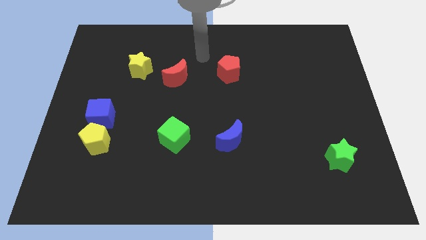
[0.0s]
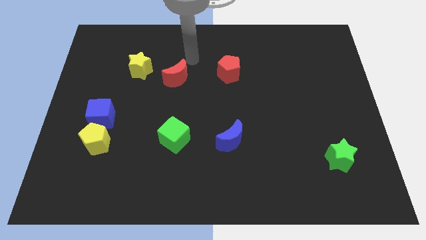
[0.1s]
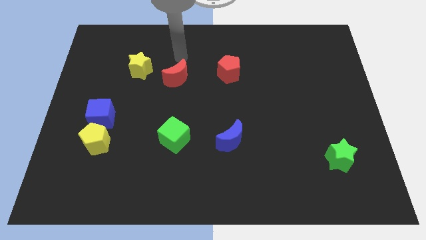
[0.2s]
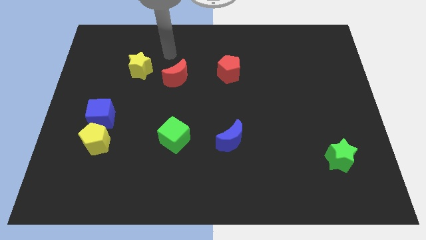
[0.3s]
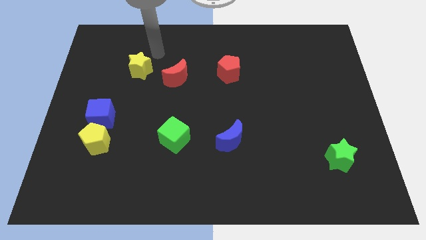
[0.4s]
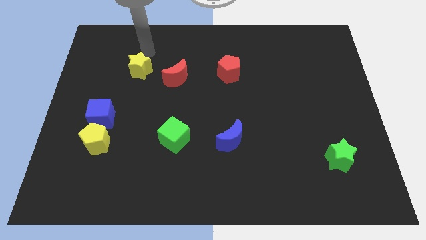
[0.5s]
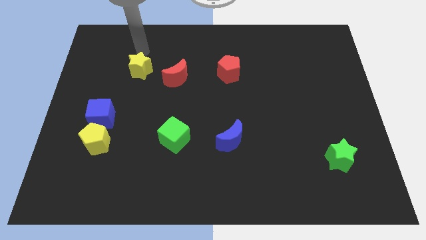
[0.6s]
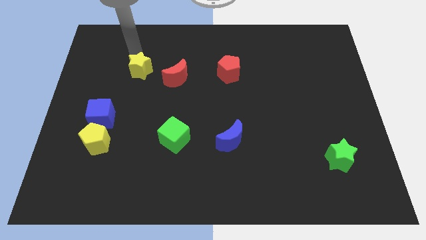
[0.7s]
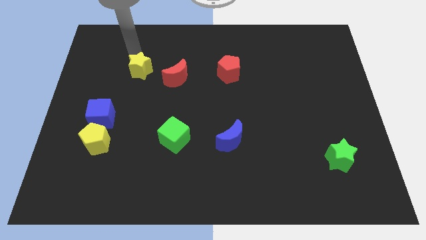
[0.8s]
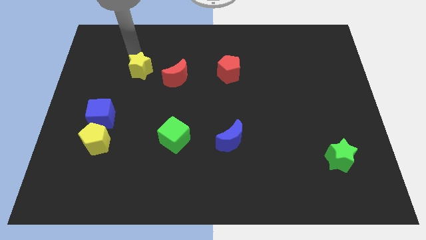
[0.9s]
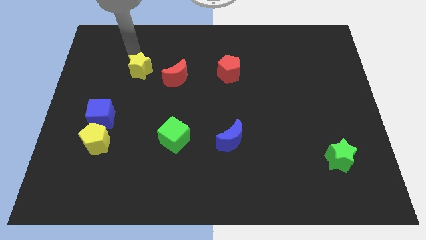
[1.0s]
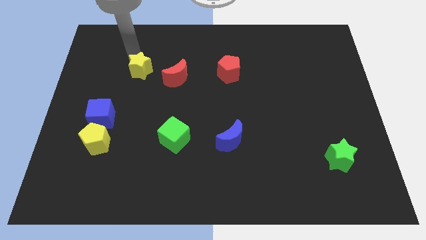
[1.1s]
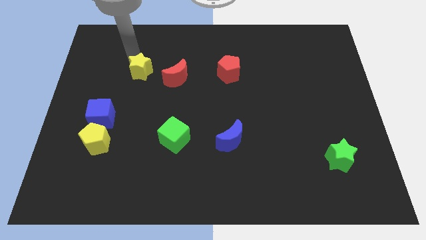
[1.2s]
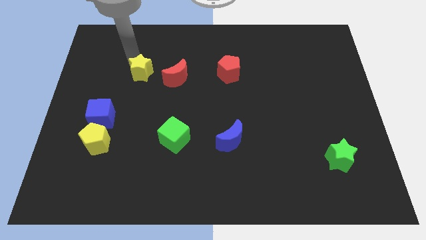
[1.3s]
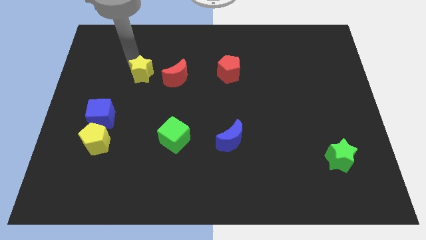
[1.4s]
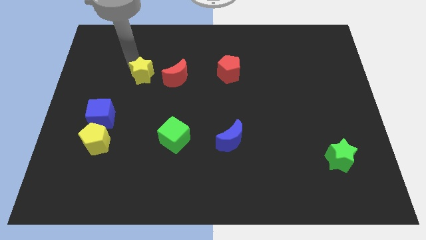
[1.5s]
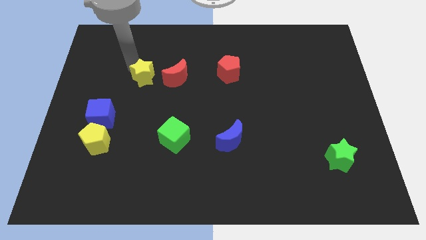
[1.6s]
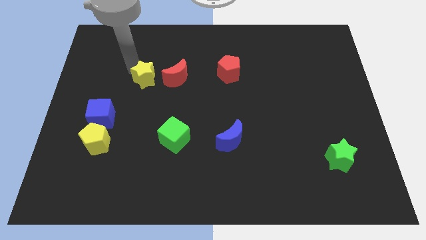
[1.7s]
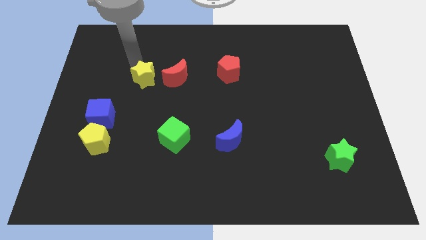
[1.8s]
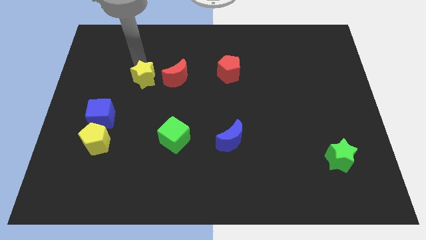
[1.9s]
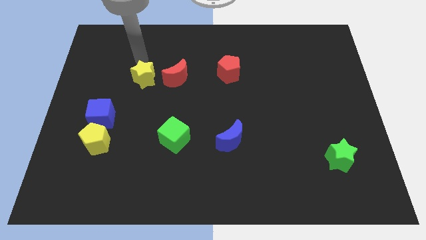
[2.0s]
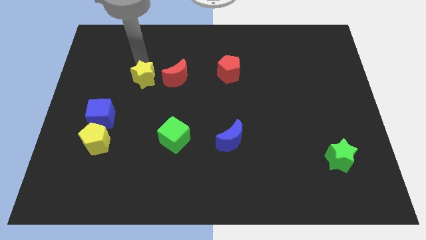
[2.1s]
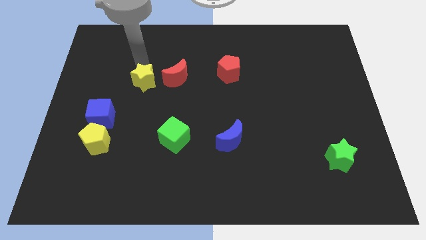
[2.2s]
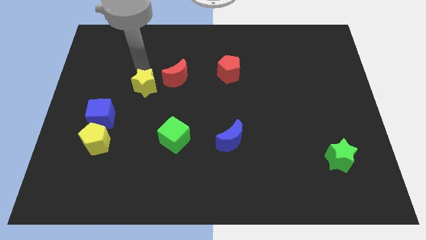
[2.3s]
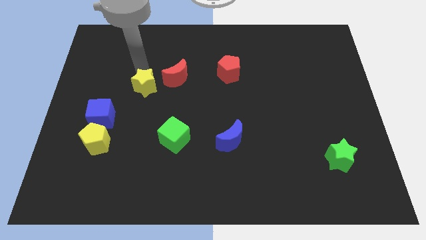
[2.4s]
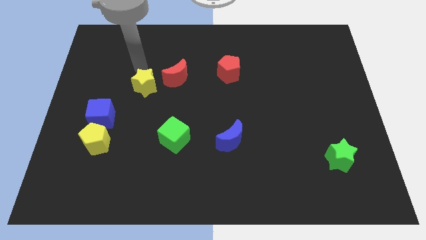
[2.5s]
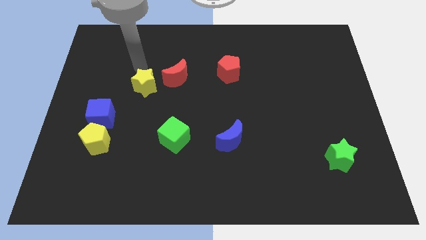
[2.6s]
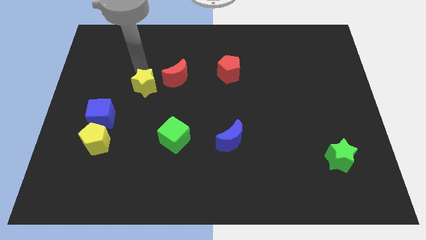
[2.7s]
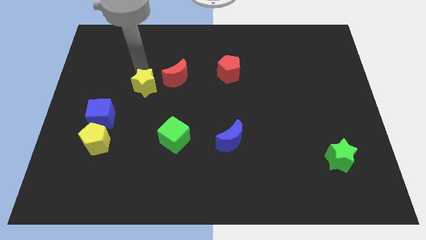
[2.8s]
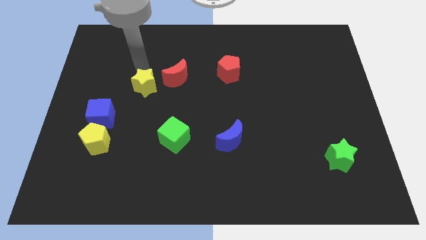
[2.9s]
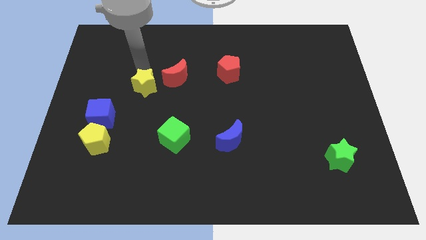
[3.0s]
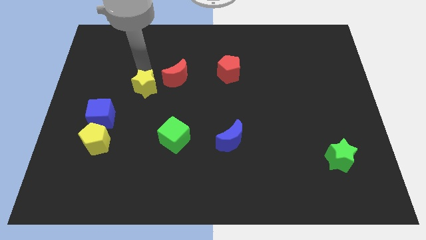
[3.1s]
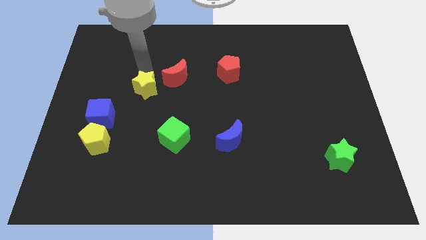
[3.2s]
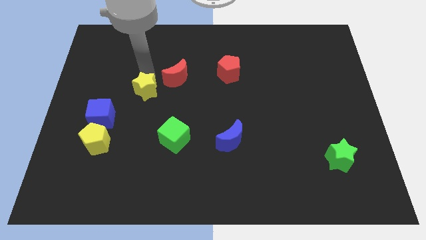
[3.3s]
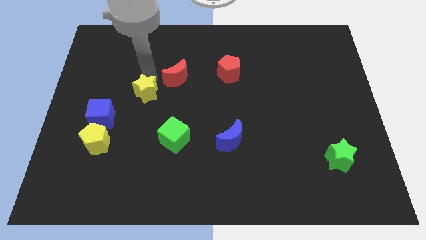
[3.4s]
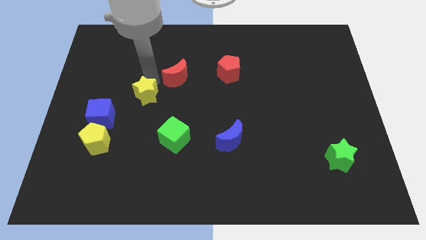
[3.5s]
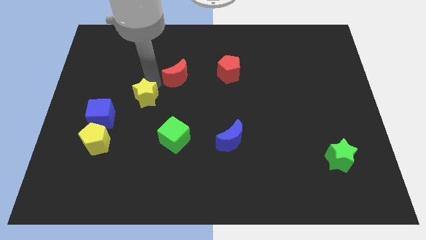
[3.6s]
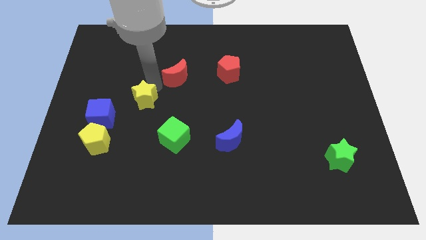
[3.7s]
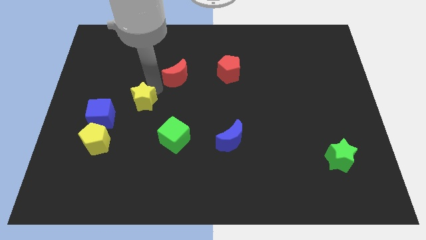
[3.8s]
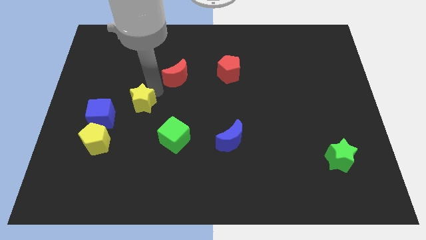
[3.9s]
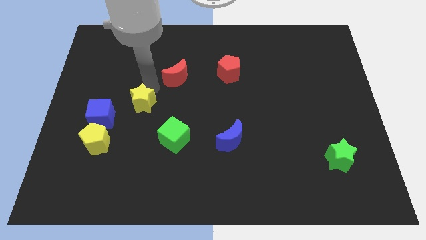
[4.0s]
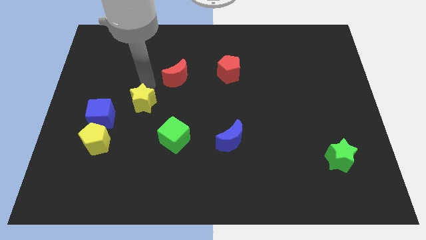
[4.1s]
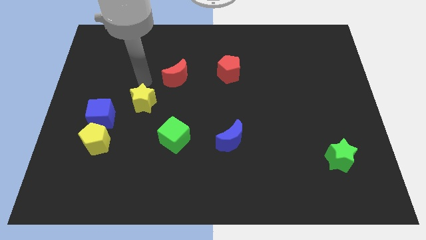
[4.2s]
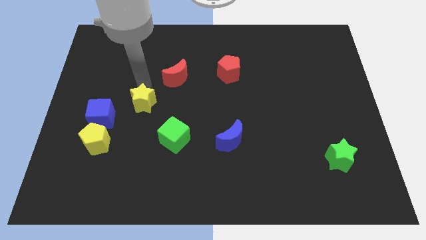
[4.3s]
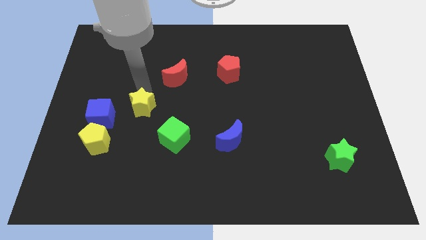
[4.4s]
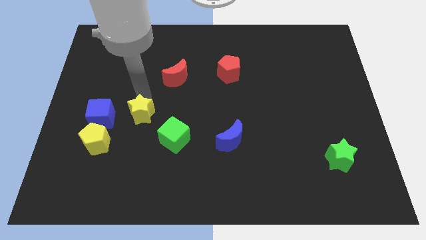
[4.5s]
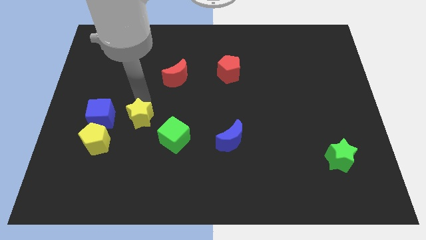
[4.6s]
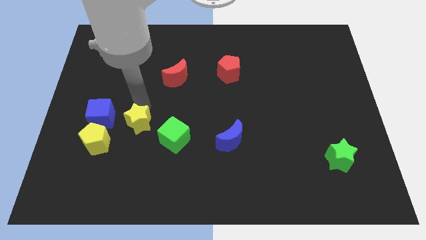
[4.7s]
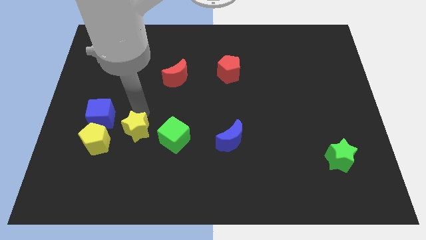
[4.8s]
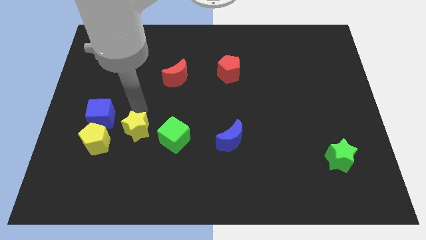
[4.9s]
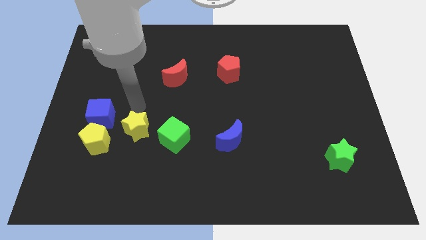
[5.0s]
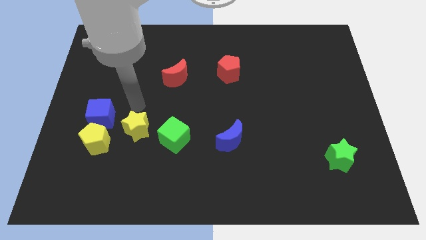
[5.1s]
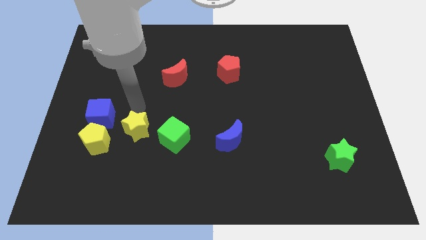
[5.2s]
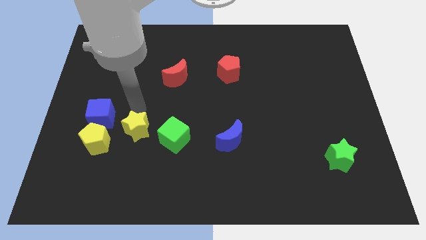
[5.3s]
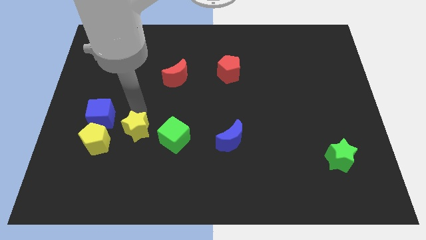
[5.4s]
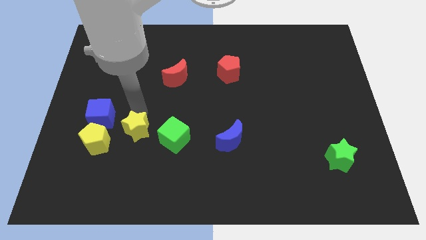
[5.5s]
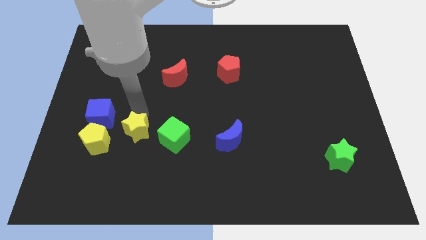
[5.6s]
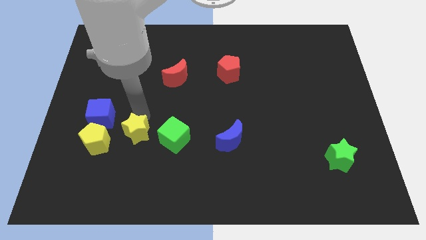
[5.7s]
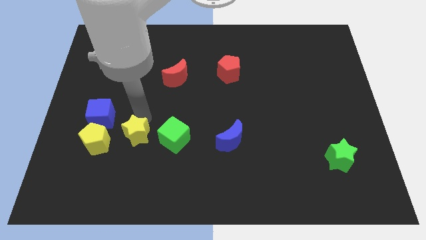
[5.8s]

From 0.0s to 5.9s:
slide the yellow star down

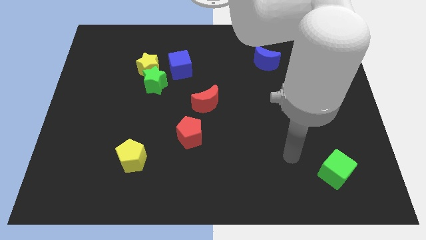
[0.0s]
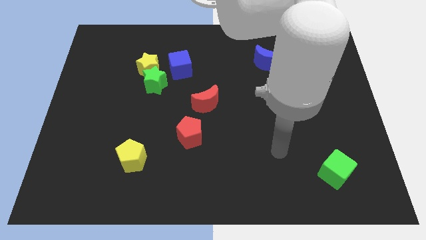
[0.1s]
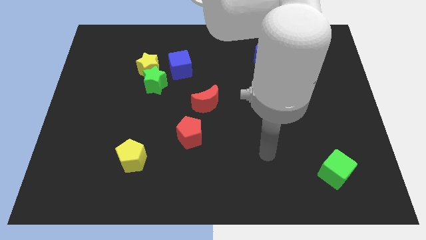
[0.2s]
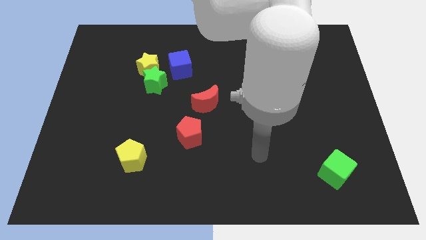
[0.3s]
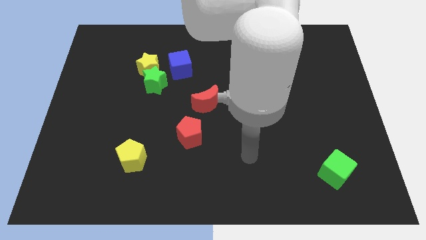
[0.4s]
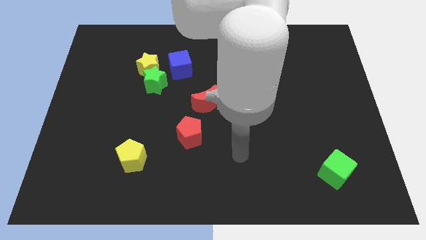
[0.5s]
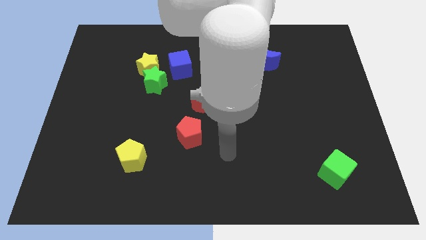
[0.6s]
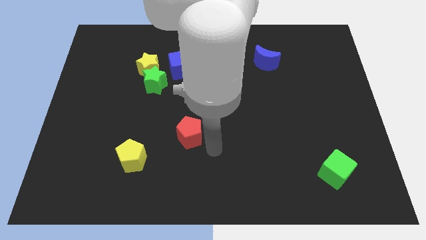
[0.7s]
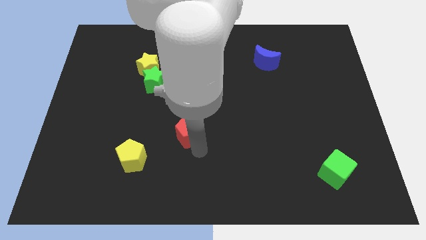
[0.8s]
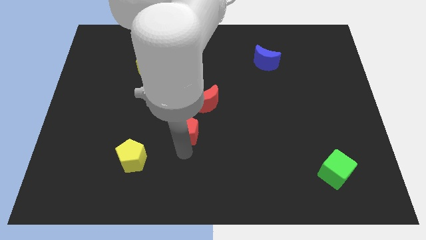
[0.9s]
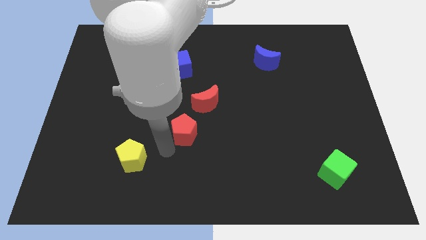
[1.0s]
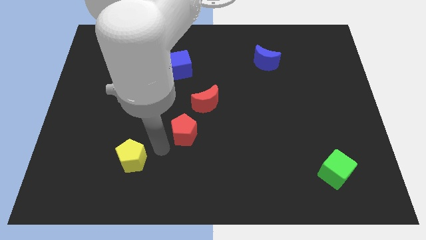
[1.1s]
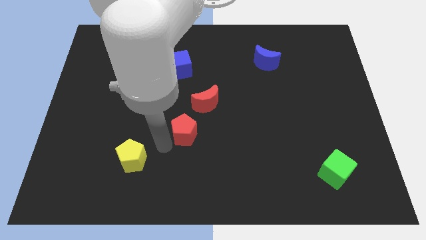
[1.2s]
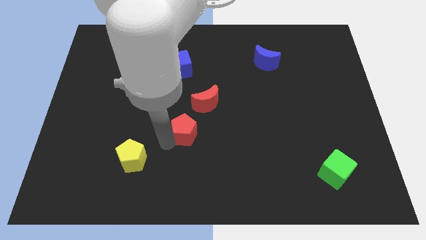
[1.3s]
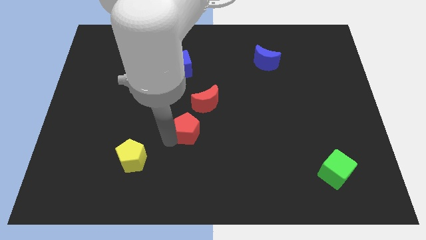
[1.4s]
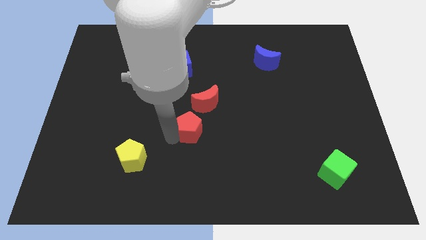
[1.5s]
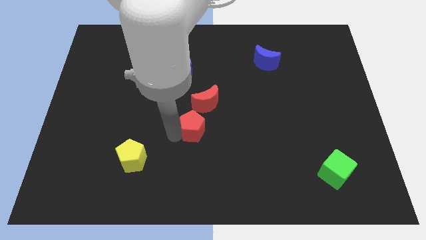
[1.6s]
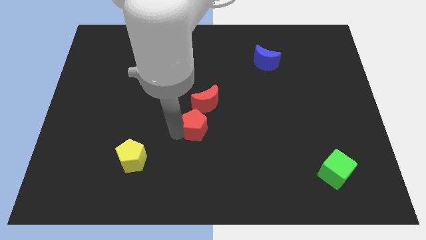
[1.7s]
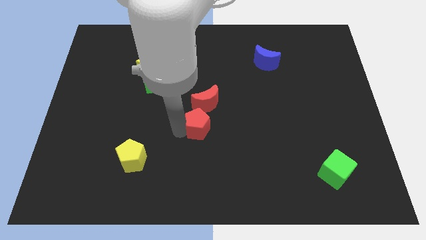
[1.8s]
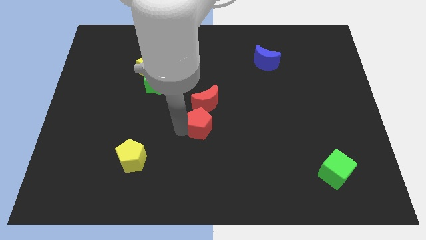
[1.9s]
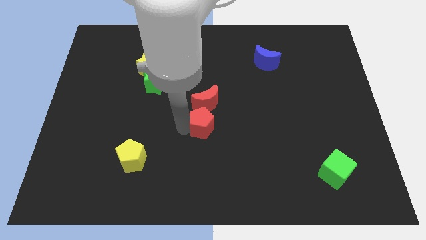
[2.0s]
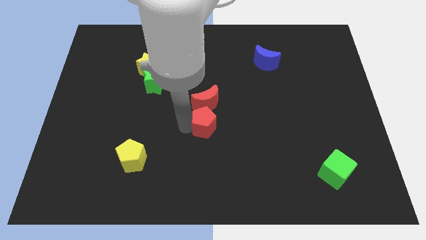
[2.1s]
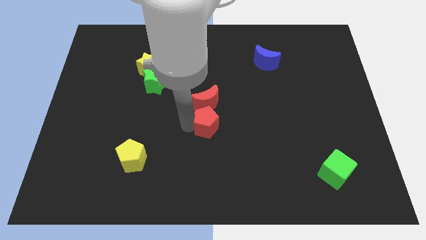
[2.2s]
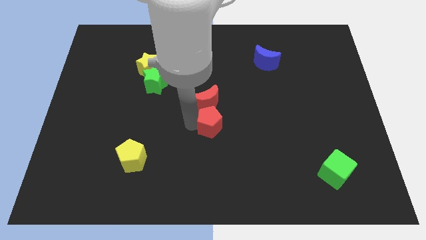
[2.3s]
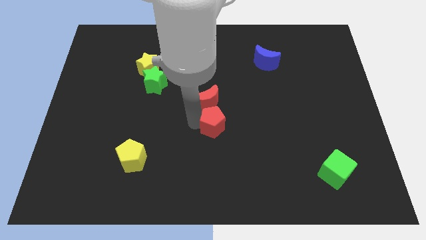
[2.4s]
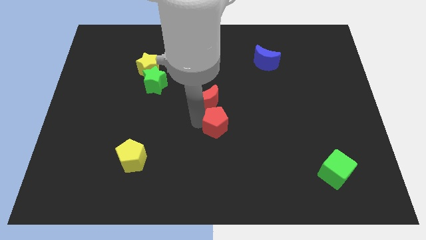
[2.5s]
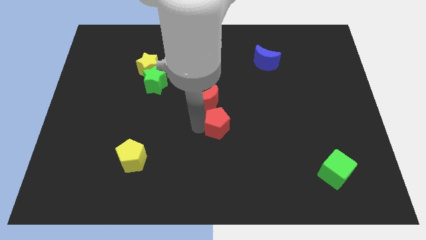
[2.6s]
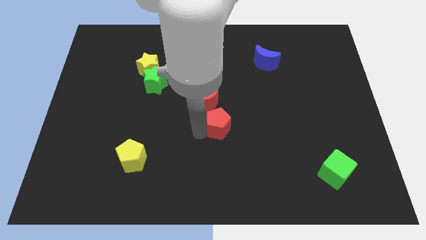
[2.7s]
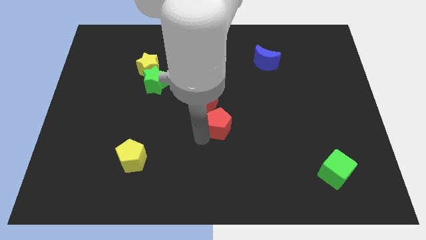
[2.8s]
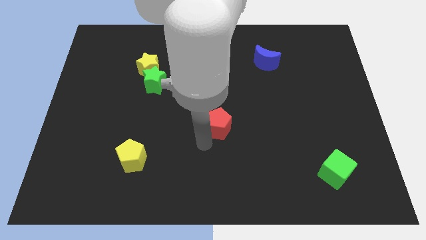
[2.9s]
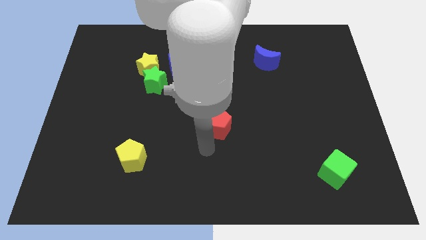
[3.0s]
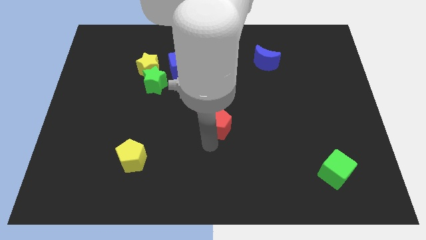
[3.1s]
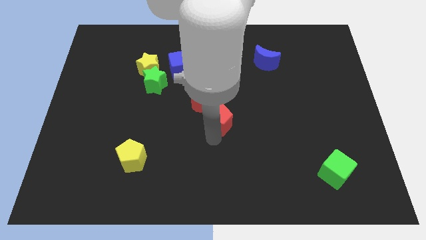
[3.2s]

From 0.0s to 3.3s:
slightly slide the red pentagon up and then right
